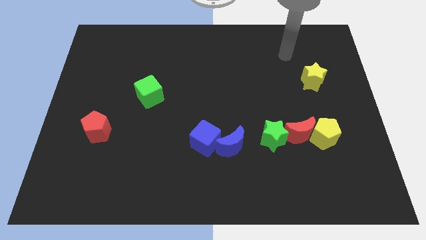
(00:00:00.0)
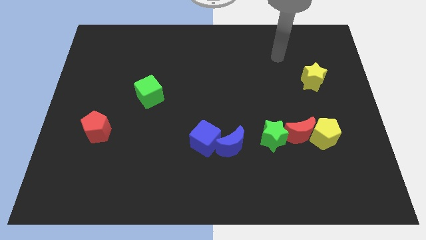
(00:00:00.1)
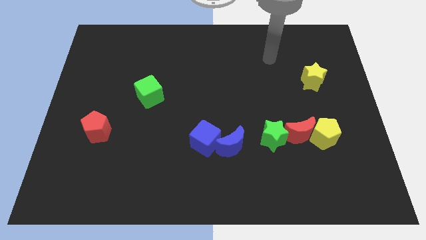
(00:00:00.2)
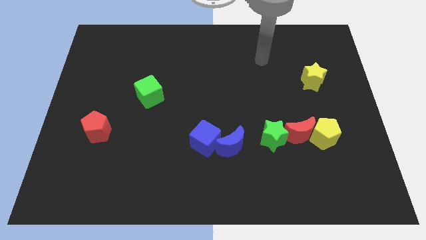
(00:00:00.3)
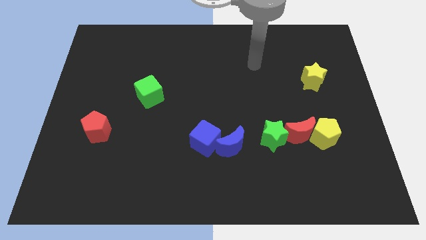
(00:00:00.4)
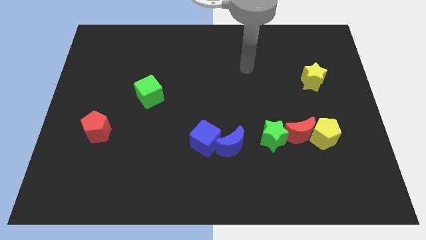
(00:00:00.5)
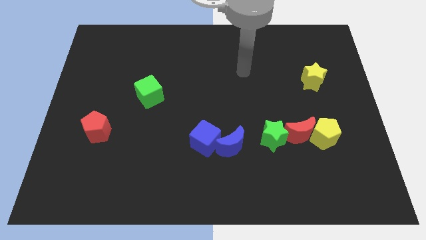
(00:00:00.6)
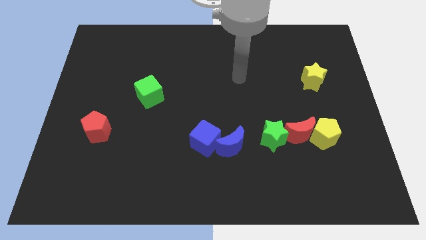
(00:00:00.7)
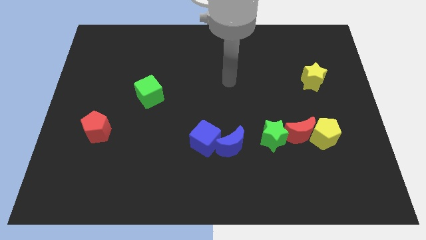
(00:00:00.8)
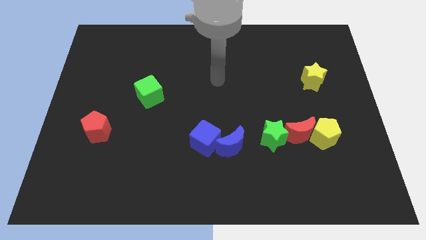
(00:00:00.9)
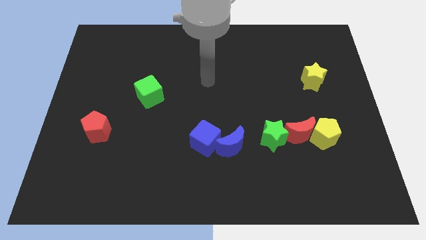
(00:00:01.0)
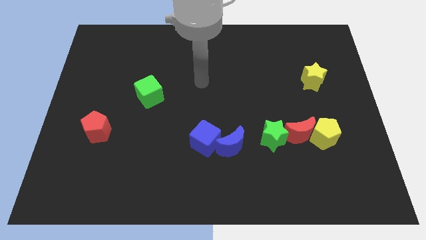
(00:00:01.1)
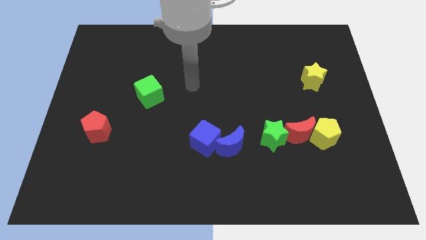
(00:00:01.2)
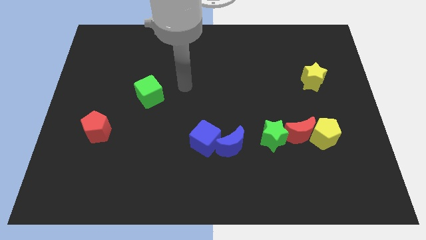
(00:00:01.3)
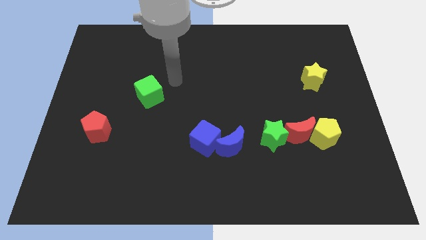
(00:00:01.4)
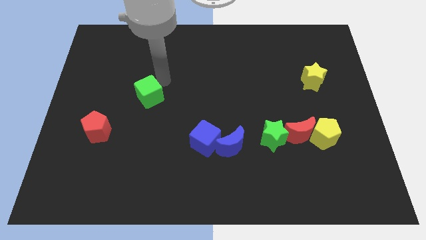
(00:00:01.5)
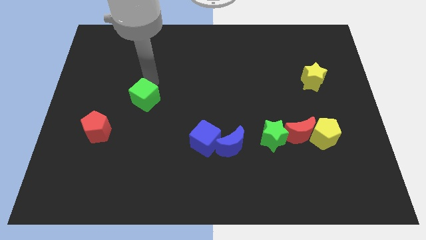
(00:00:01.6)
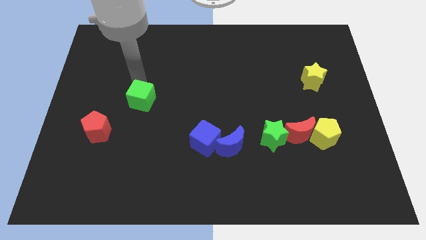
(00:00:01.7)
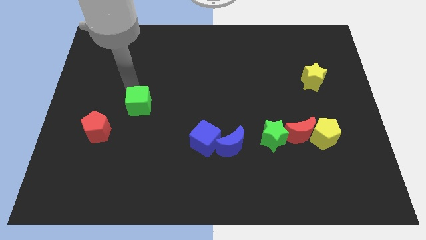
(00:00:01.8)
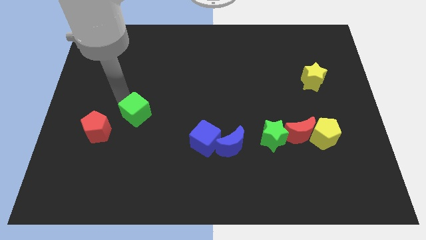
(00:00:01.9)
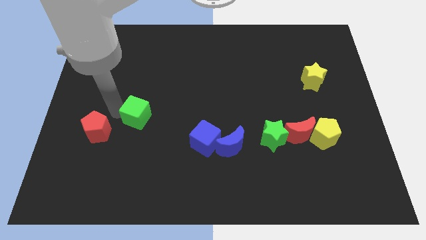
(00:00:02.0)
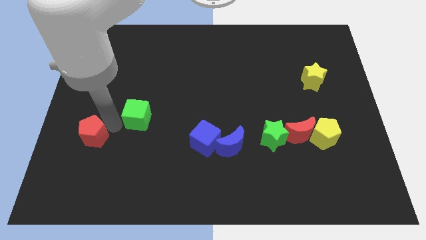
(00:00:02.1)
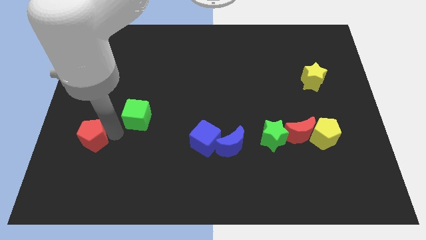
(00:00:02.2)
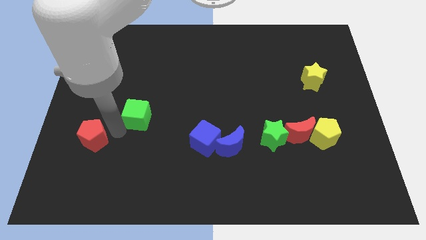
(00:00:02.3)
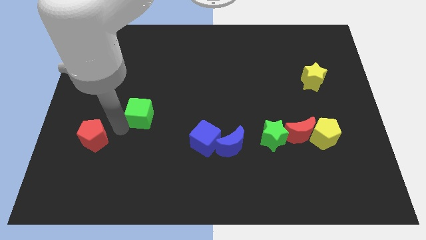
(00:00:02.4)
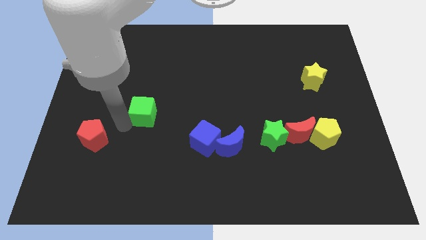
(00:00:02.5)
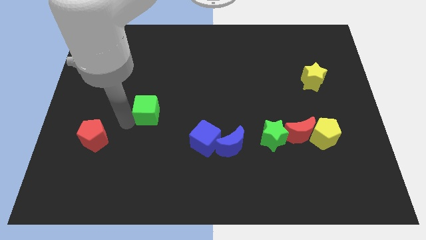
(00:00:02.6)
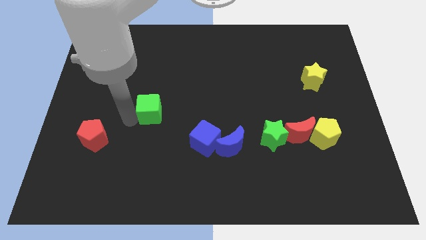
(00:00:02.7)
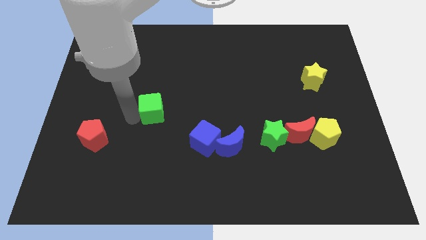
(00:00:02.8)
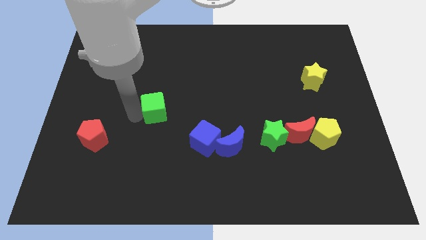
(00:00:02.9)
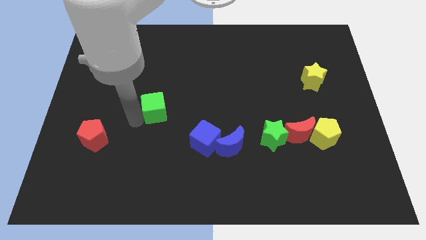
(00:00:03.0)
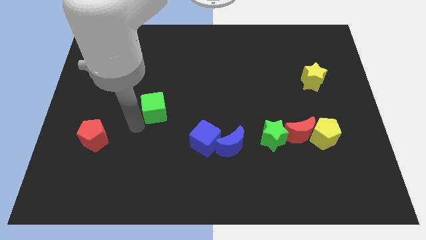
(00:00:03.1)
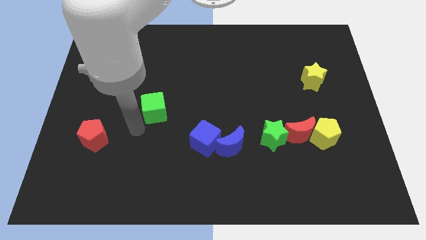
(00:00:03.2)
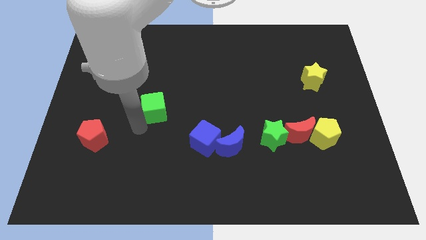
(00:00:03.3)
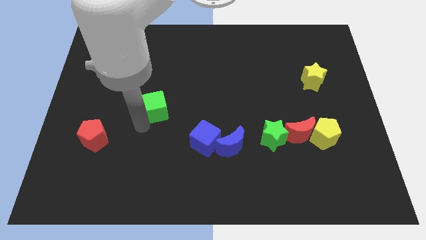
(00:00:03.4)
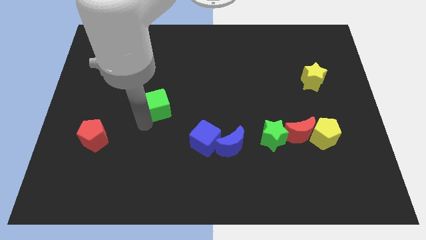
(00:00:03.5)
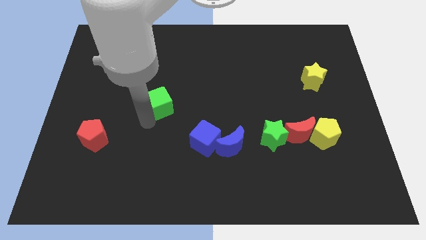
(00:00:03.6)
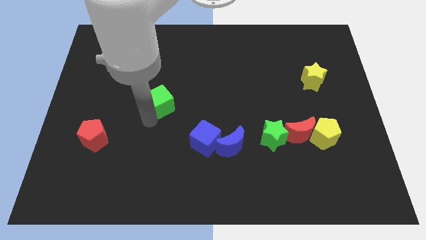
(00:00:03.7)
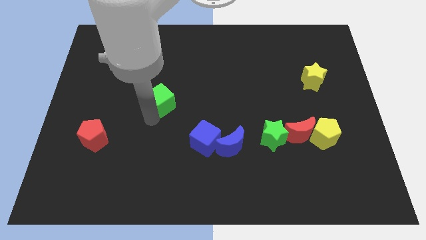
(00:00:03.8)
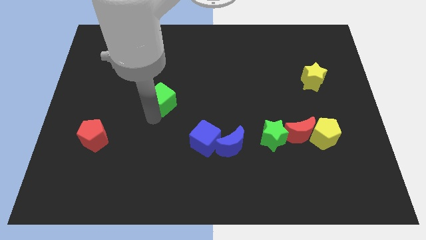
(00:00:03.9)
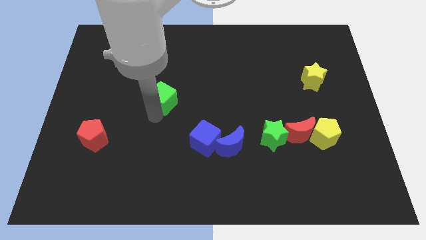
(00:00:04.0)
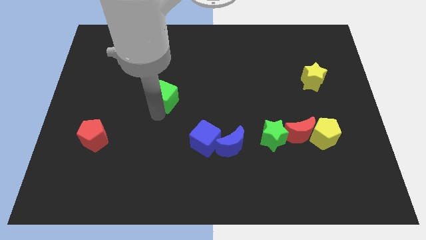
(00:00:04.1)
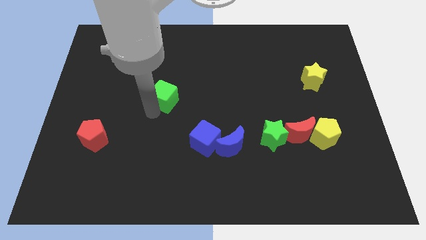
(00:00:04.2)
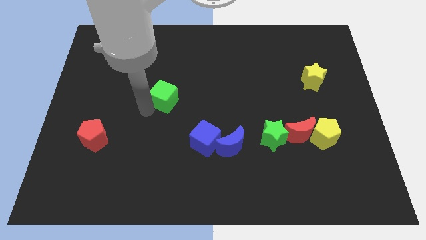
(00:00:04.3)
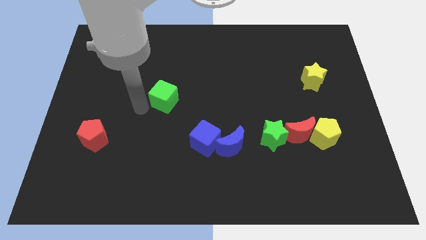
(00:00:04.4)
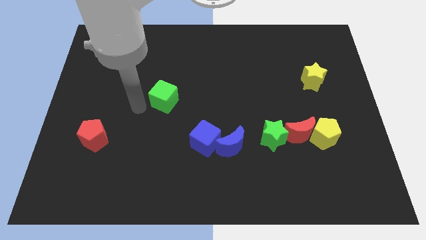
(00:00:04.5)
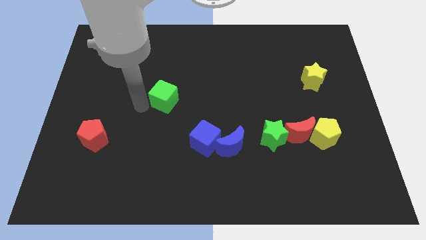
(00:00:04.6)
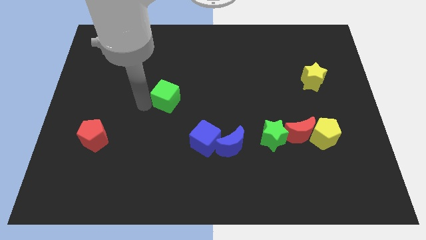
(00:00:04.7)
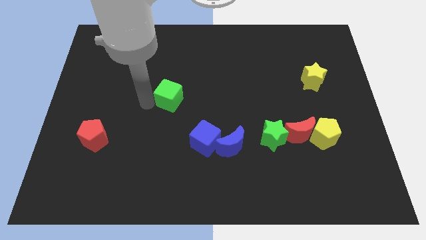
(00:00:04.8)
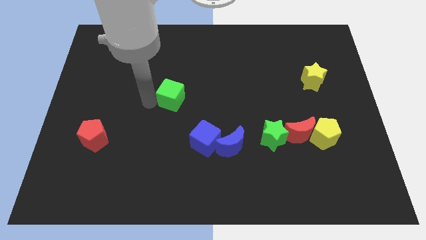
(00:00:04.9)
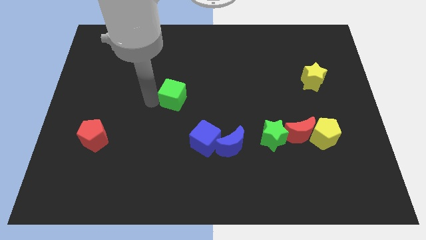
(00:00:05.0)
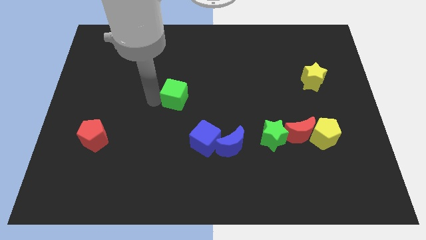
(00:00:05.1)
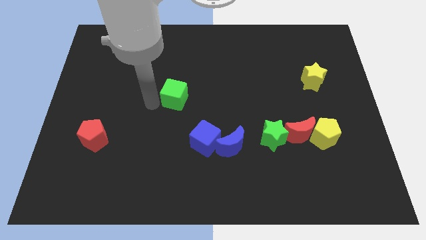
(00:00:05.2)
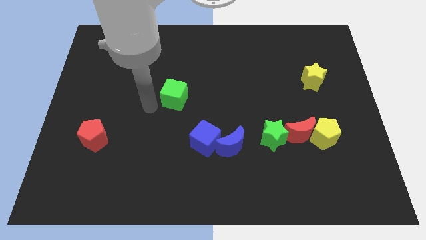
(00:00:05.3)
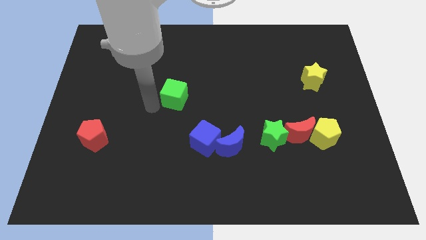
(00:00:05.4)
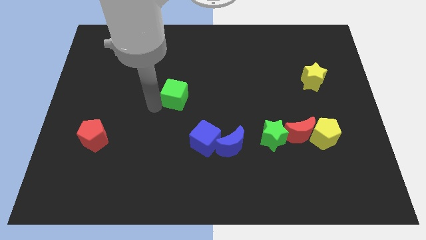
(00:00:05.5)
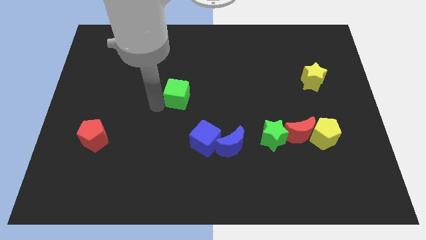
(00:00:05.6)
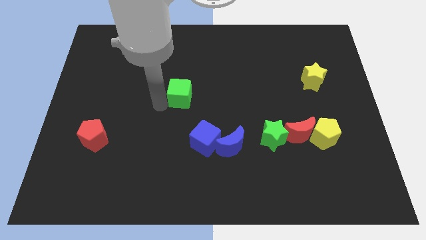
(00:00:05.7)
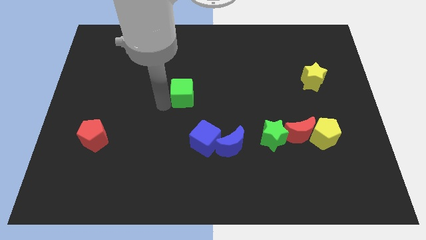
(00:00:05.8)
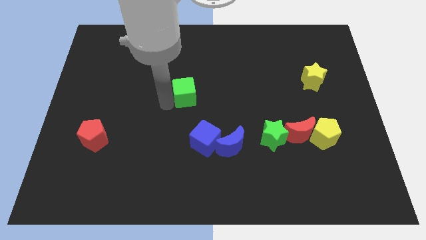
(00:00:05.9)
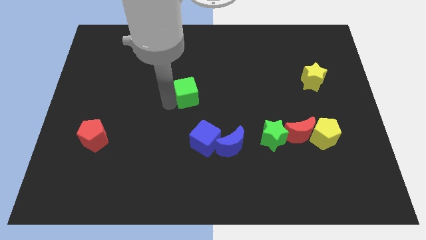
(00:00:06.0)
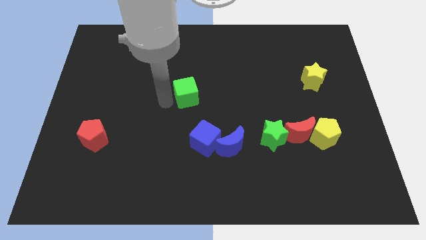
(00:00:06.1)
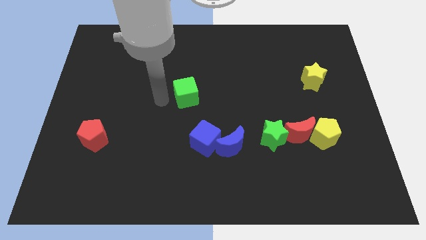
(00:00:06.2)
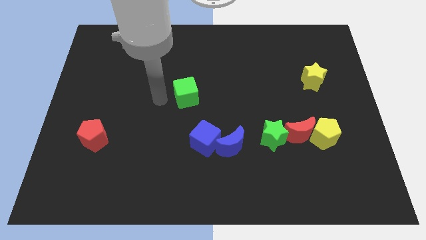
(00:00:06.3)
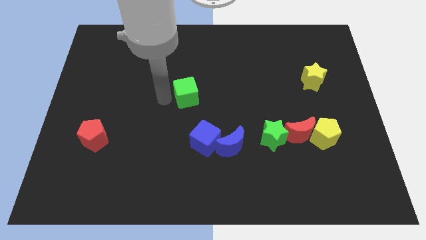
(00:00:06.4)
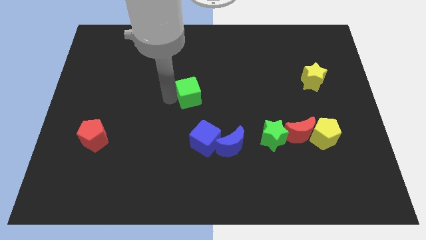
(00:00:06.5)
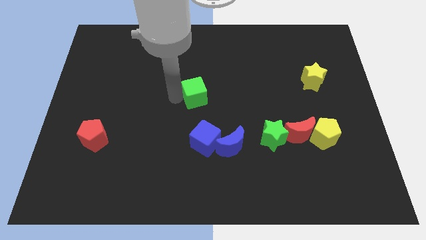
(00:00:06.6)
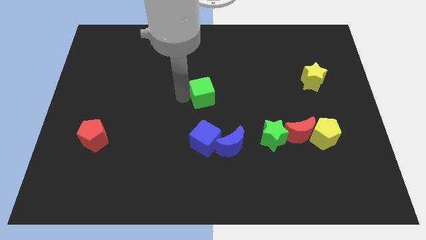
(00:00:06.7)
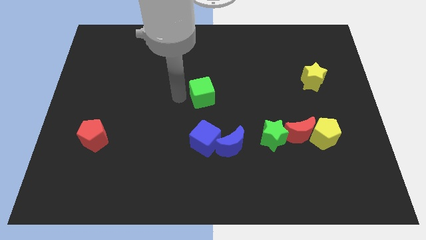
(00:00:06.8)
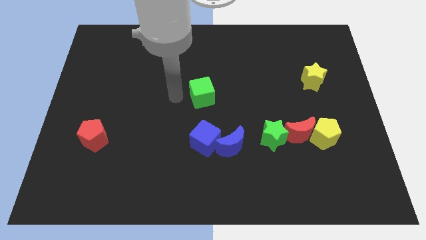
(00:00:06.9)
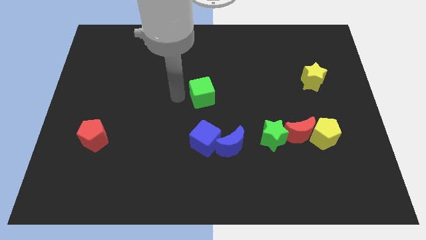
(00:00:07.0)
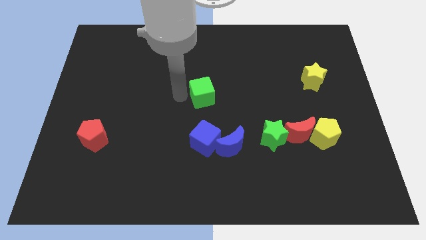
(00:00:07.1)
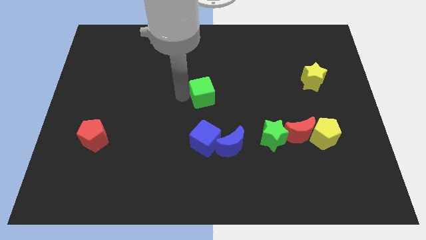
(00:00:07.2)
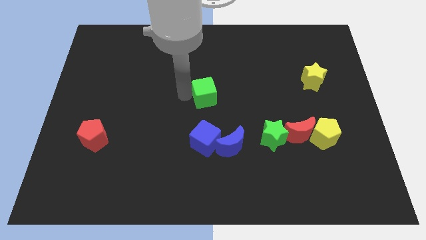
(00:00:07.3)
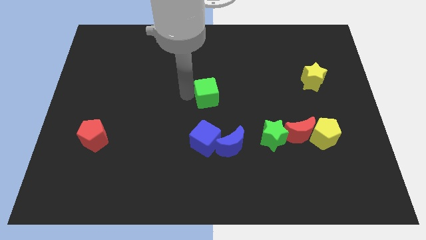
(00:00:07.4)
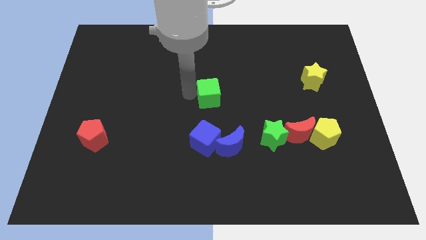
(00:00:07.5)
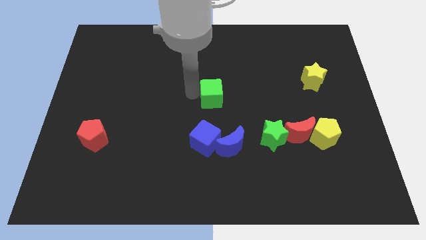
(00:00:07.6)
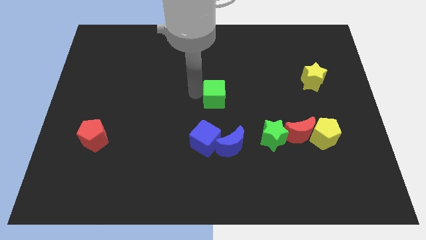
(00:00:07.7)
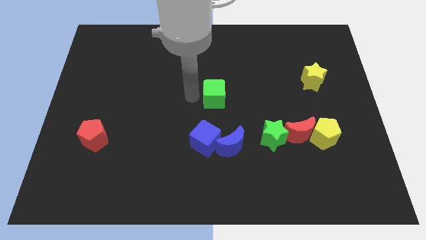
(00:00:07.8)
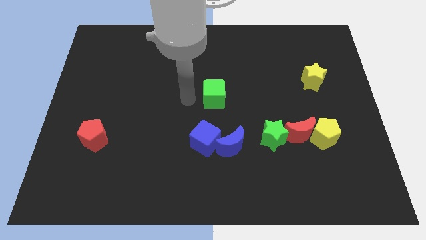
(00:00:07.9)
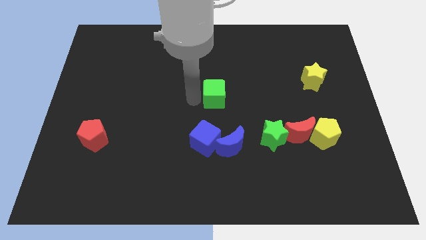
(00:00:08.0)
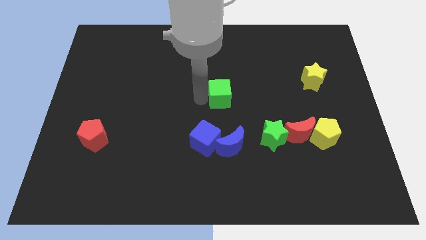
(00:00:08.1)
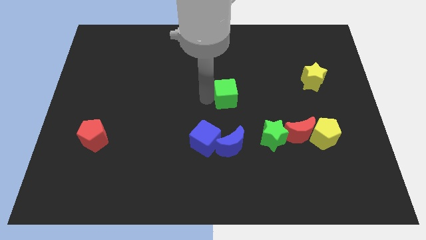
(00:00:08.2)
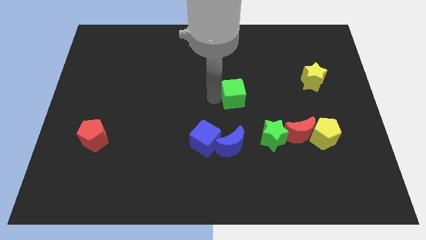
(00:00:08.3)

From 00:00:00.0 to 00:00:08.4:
move the green cube to the right

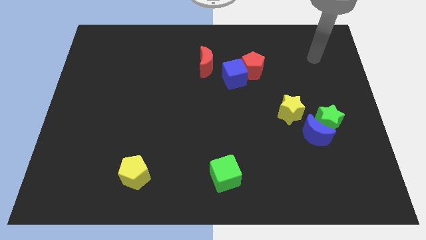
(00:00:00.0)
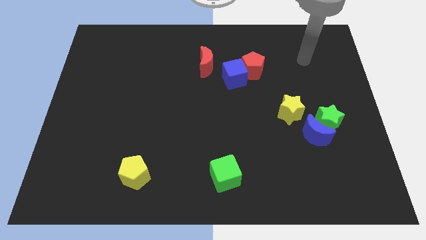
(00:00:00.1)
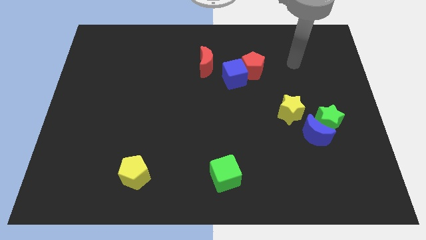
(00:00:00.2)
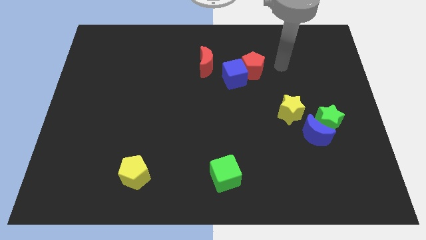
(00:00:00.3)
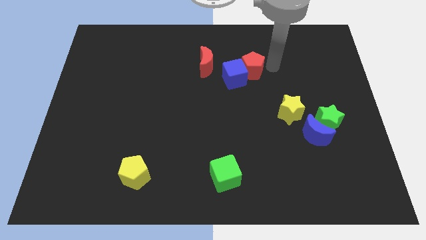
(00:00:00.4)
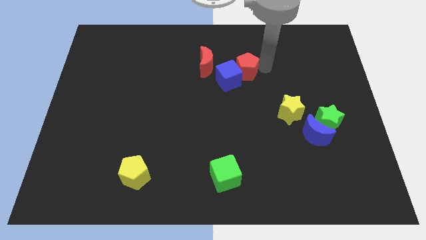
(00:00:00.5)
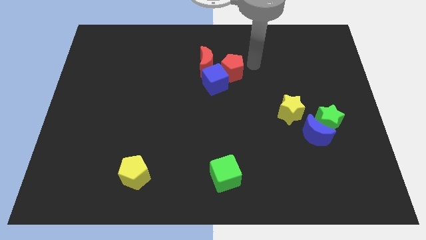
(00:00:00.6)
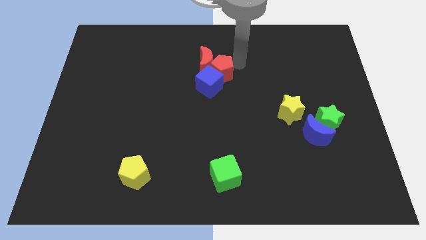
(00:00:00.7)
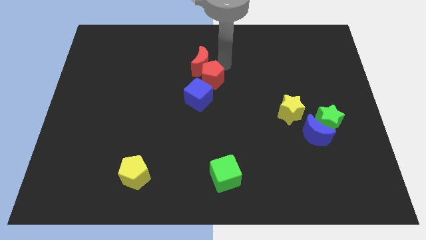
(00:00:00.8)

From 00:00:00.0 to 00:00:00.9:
move the blue cube slightly down and left diagonally
